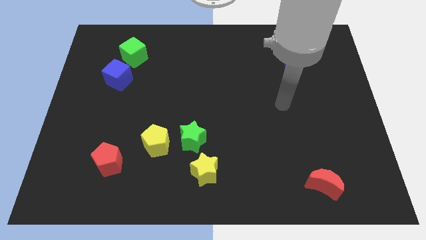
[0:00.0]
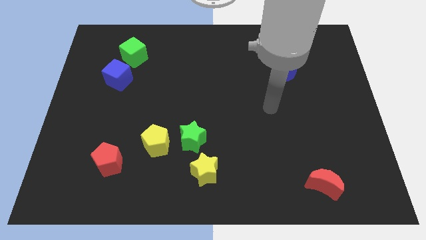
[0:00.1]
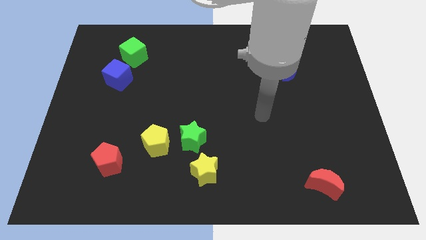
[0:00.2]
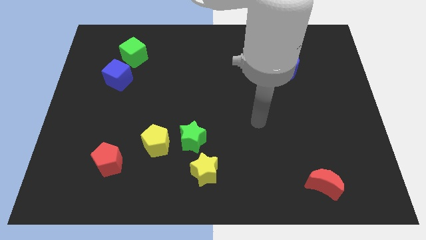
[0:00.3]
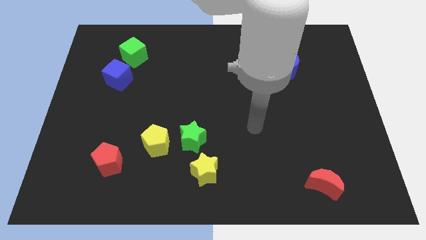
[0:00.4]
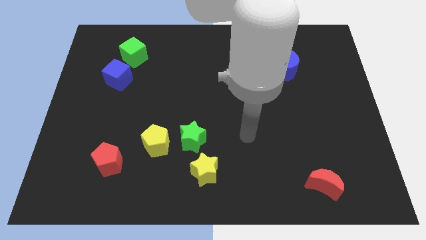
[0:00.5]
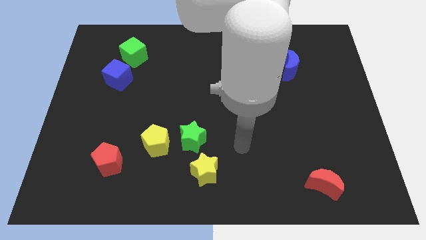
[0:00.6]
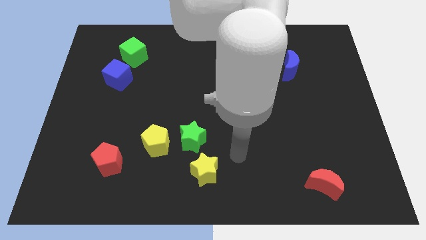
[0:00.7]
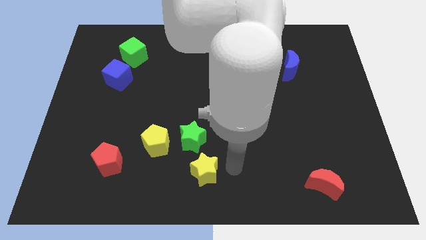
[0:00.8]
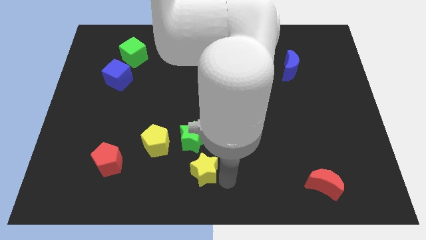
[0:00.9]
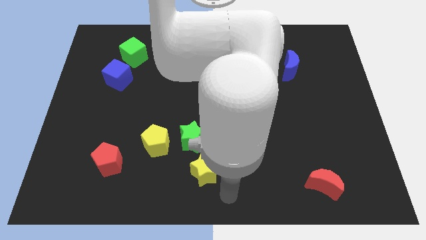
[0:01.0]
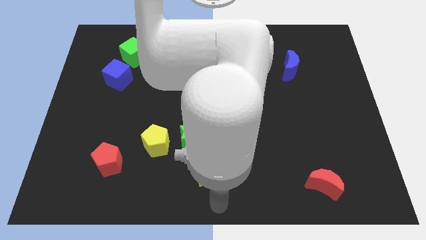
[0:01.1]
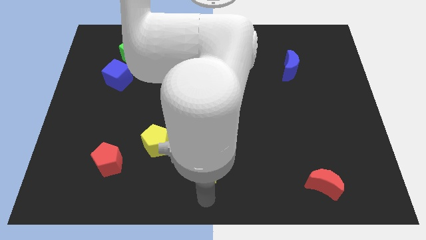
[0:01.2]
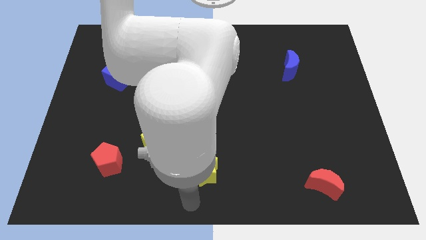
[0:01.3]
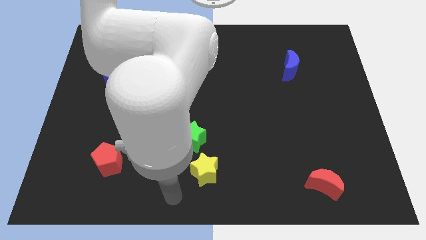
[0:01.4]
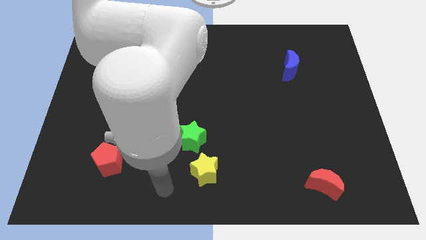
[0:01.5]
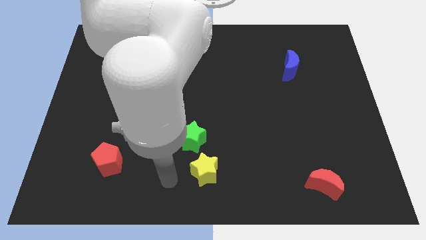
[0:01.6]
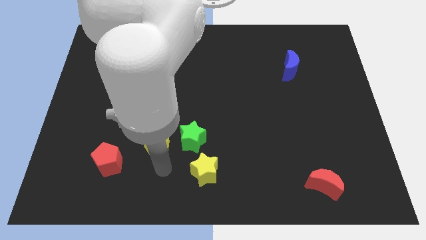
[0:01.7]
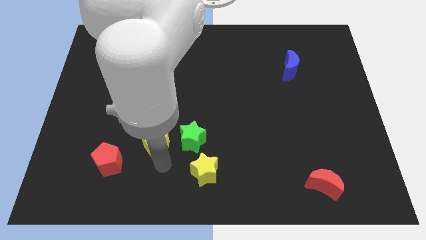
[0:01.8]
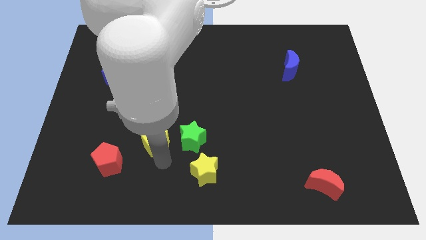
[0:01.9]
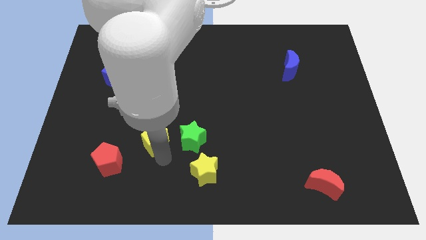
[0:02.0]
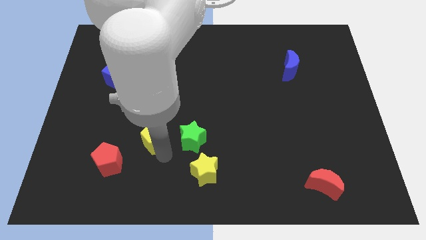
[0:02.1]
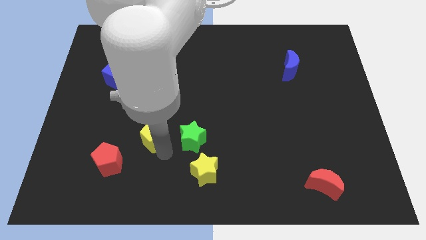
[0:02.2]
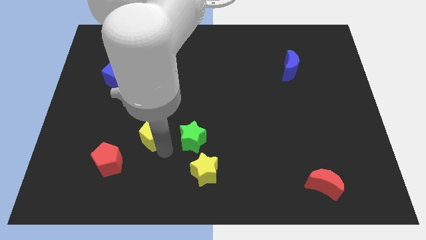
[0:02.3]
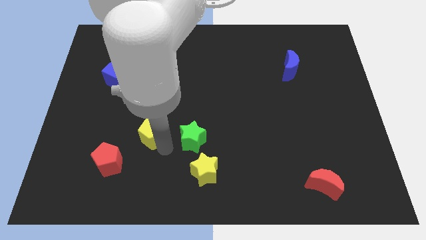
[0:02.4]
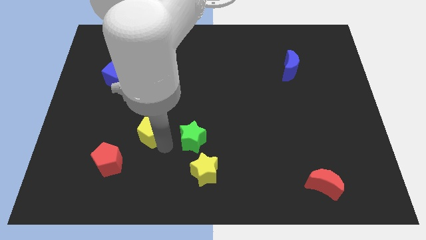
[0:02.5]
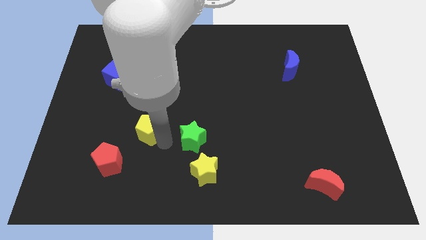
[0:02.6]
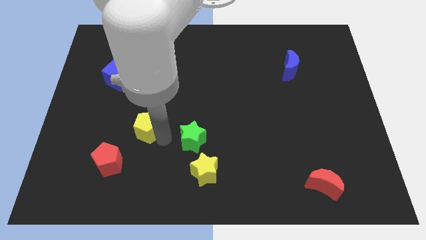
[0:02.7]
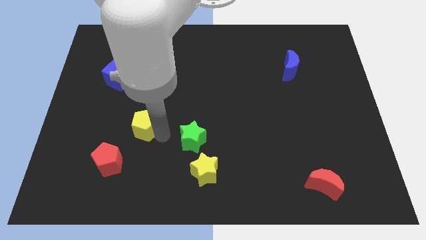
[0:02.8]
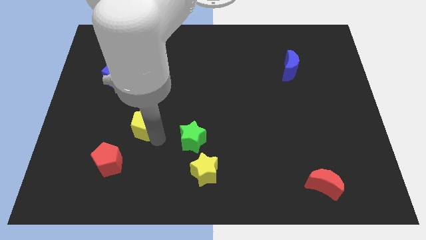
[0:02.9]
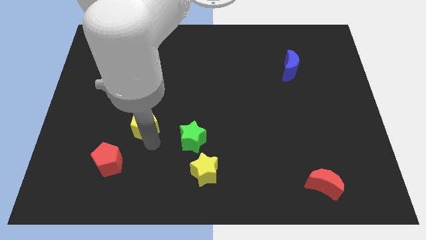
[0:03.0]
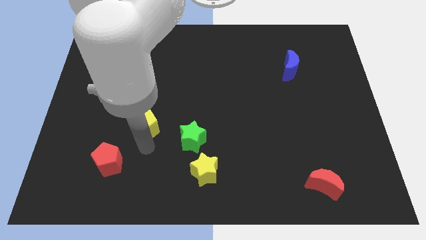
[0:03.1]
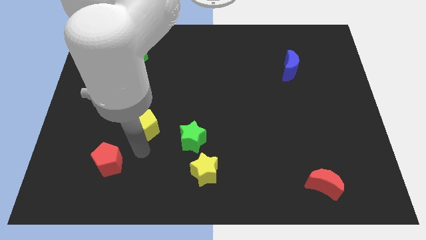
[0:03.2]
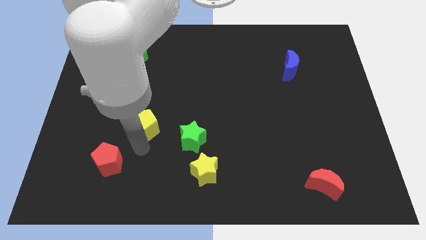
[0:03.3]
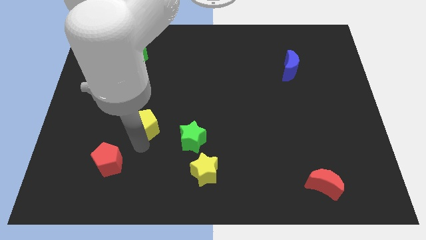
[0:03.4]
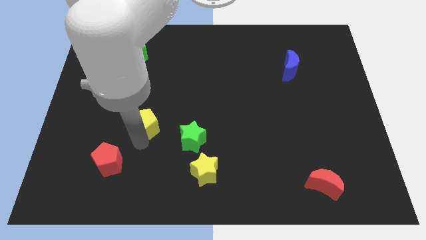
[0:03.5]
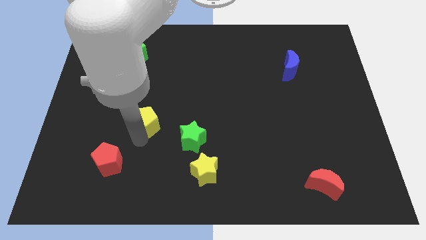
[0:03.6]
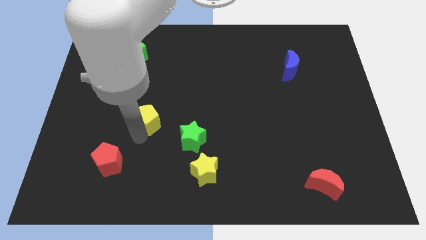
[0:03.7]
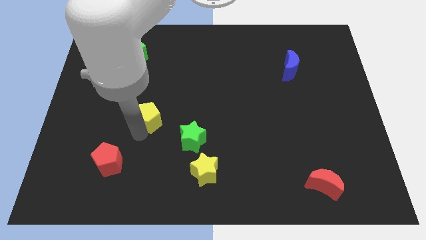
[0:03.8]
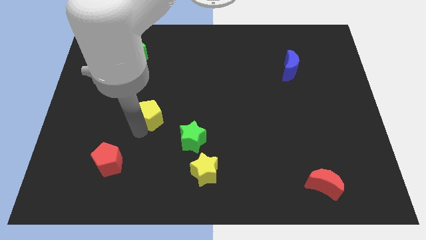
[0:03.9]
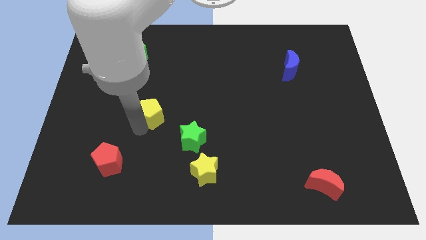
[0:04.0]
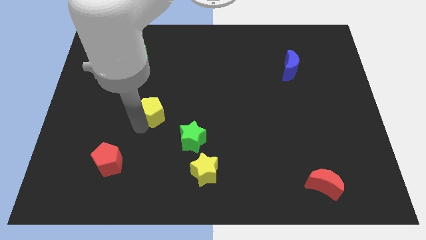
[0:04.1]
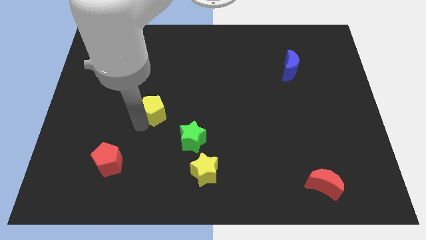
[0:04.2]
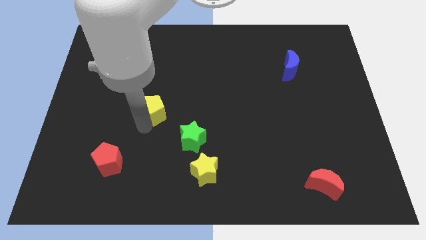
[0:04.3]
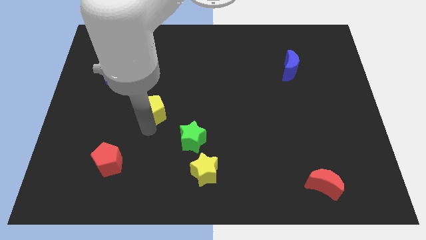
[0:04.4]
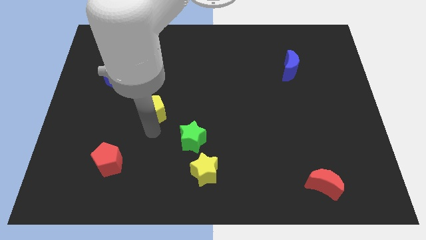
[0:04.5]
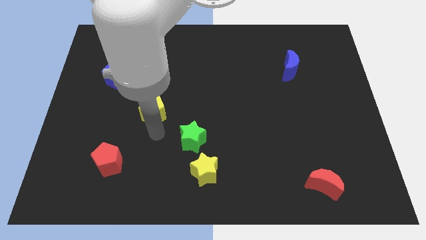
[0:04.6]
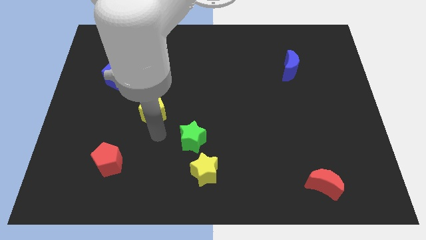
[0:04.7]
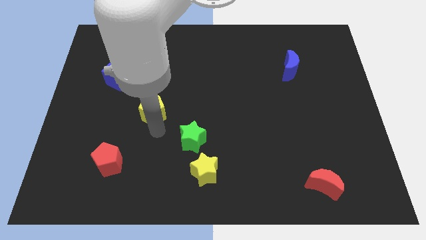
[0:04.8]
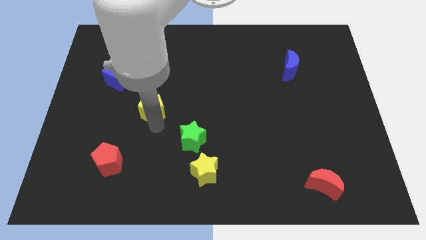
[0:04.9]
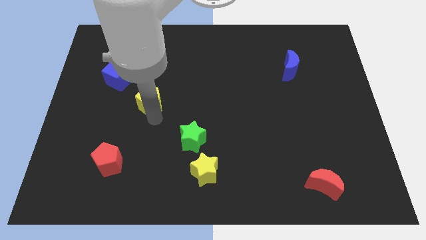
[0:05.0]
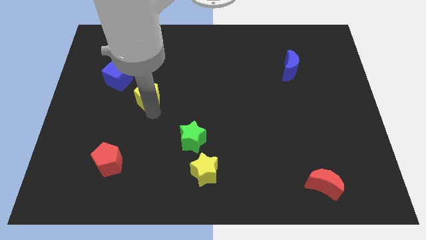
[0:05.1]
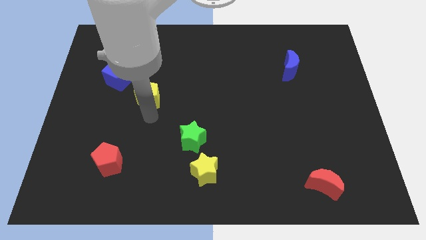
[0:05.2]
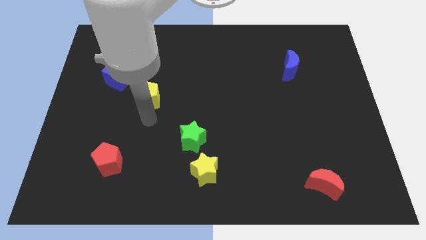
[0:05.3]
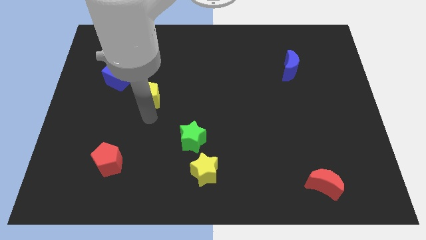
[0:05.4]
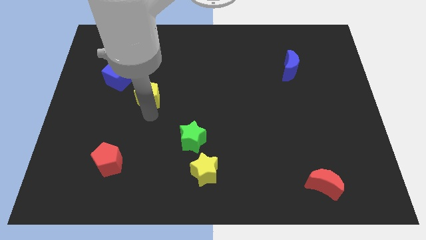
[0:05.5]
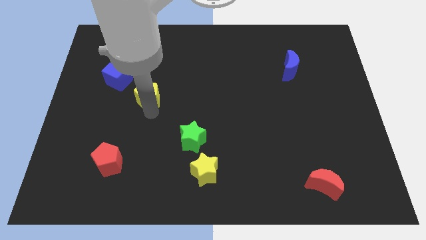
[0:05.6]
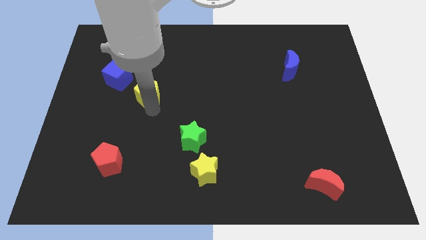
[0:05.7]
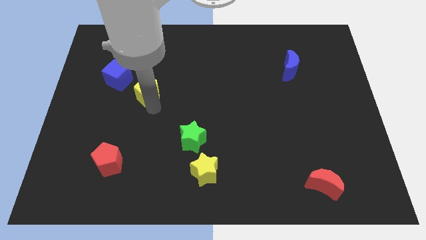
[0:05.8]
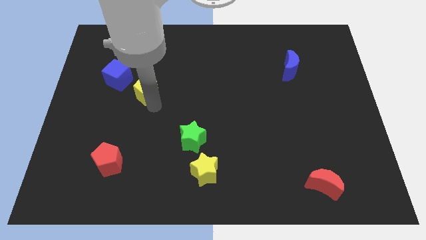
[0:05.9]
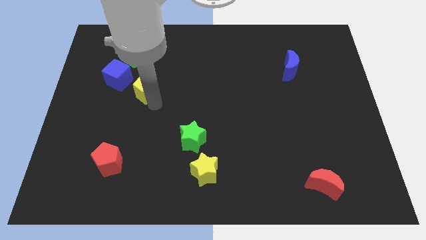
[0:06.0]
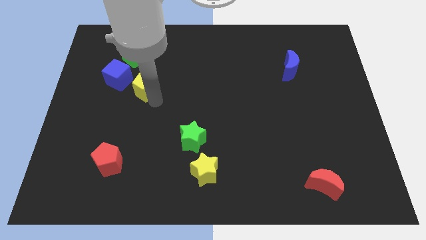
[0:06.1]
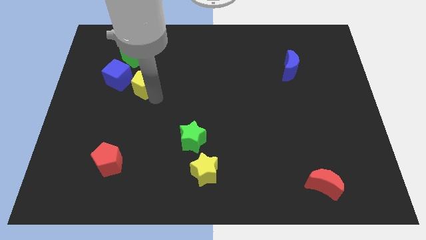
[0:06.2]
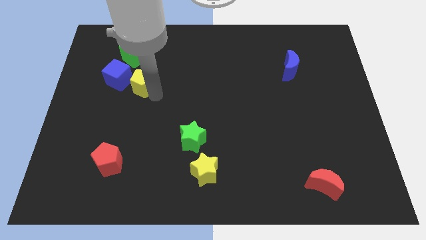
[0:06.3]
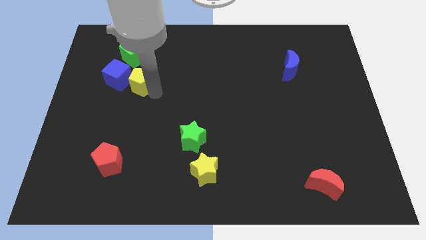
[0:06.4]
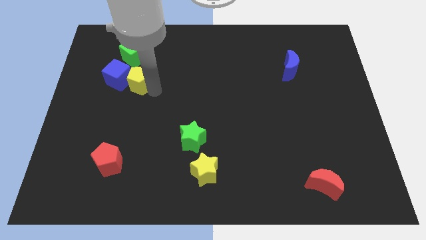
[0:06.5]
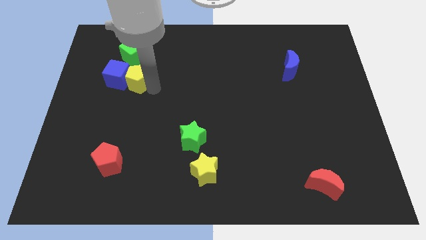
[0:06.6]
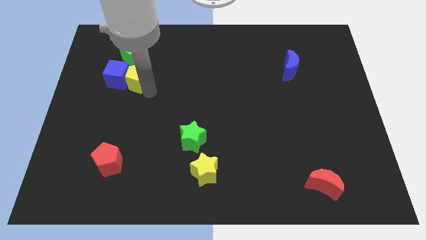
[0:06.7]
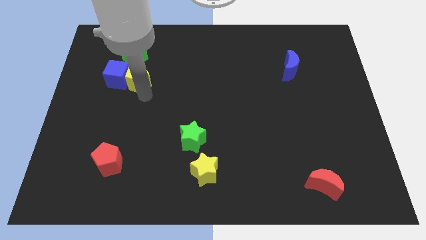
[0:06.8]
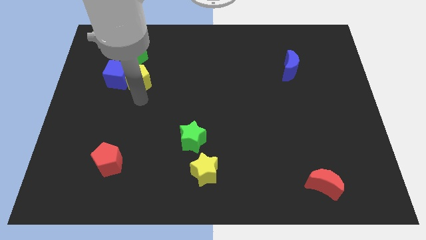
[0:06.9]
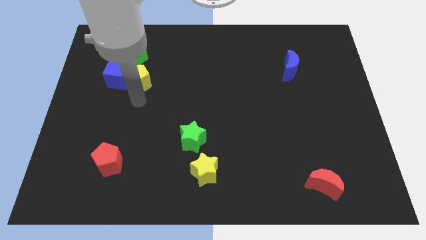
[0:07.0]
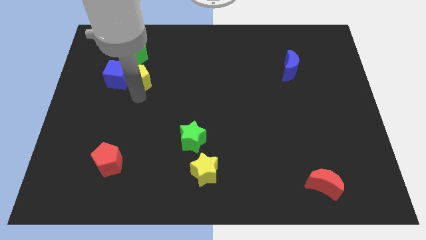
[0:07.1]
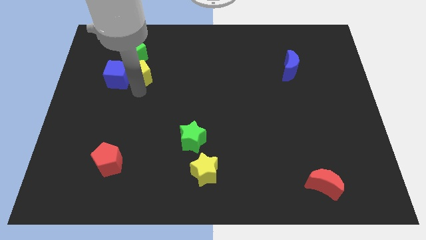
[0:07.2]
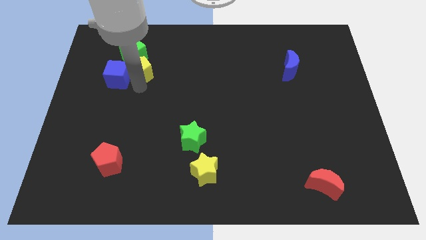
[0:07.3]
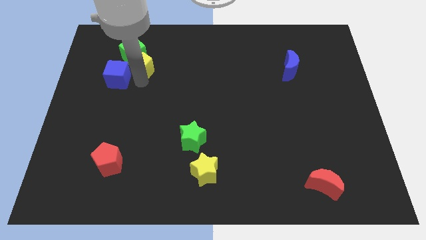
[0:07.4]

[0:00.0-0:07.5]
slide the yellow pentagon towards the green cube
